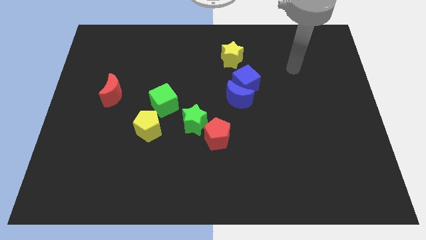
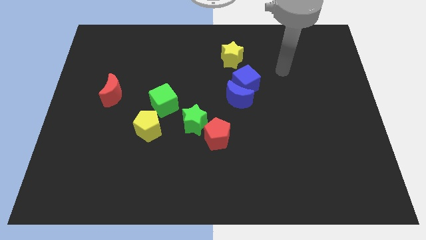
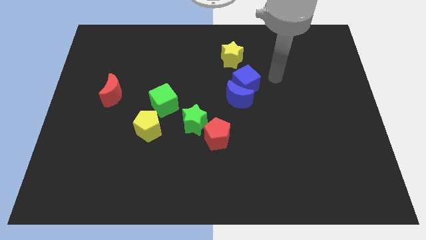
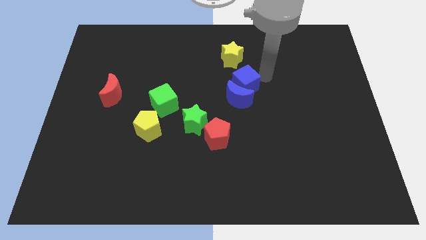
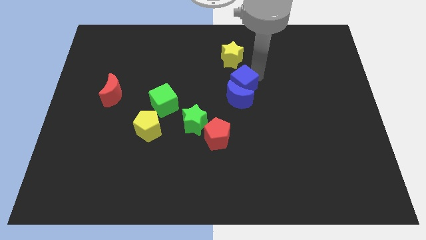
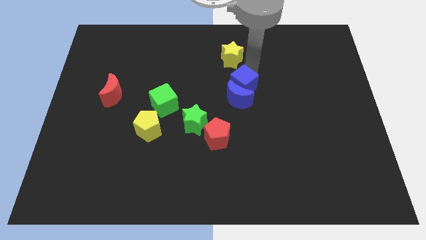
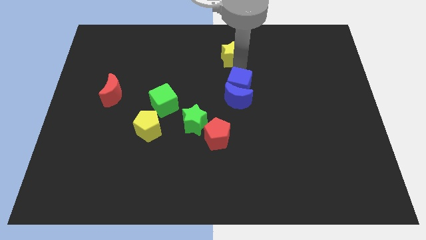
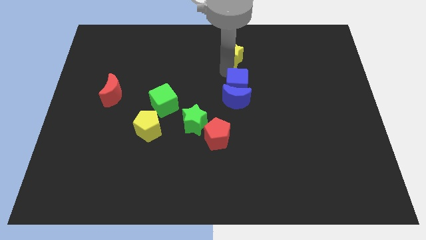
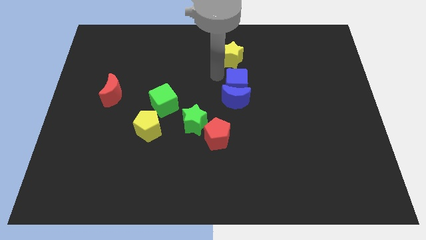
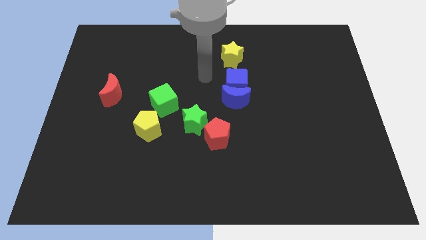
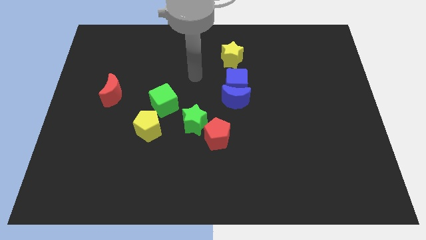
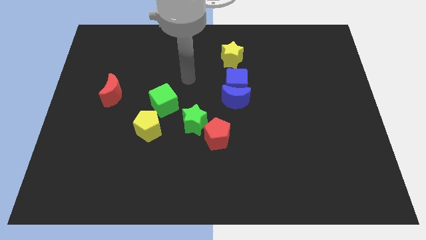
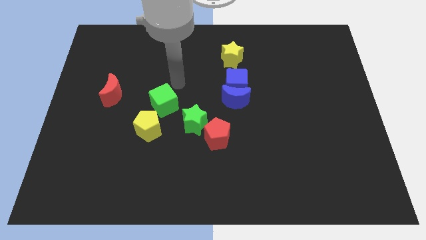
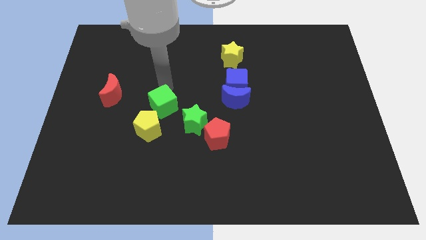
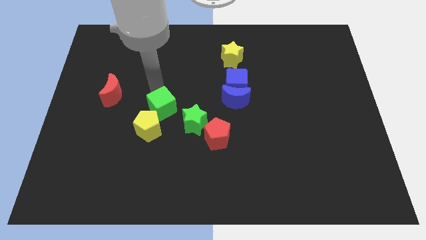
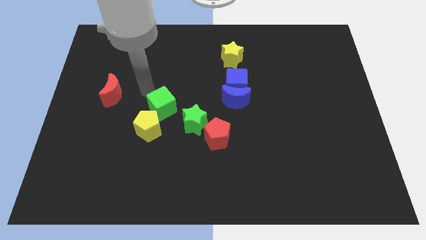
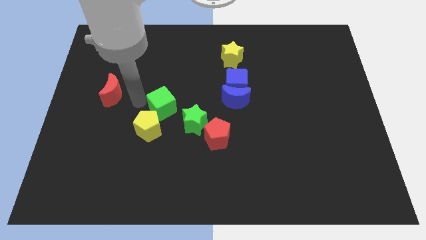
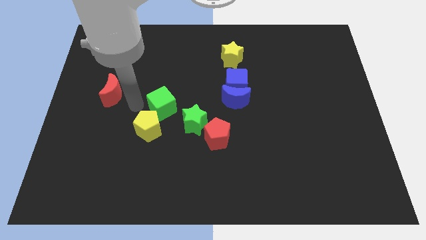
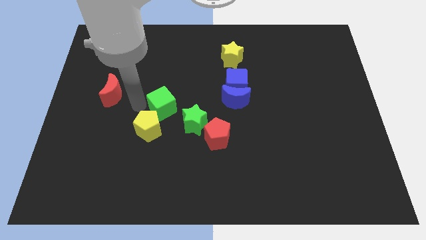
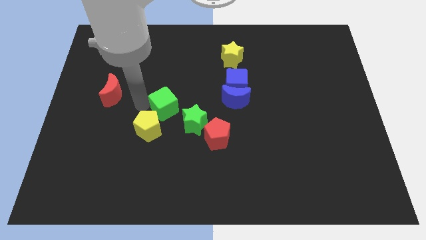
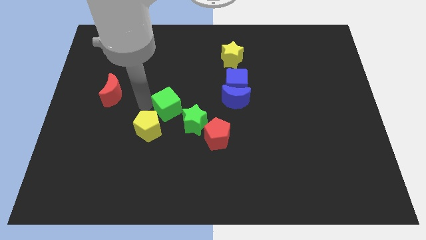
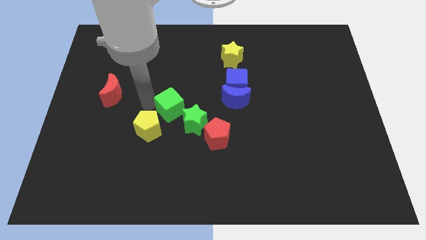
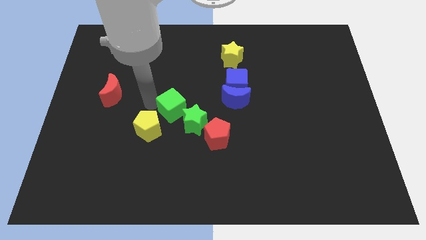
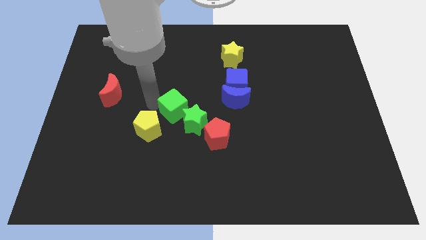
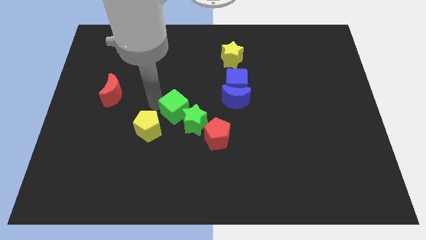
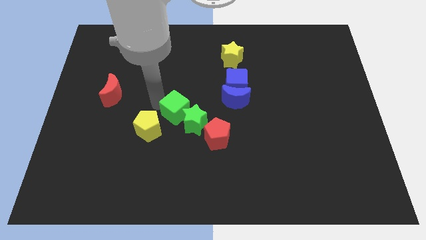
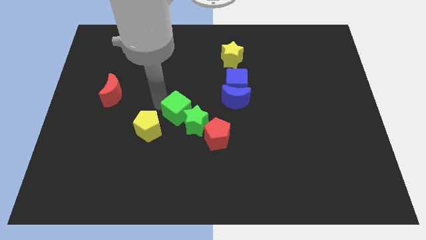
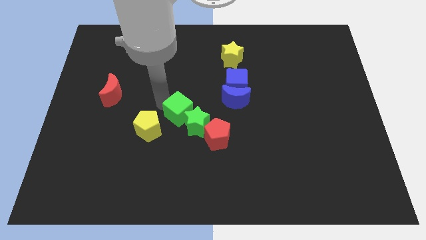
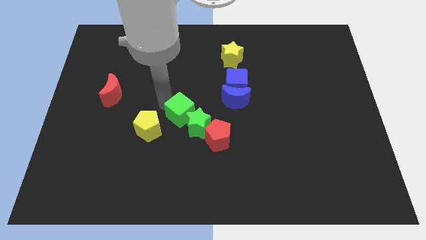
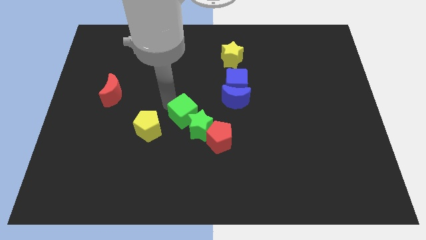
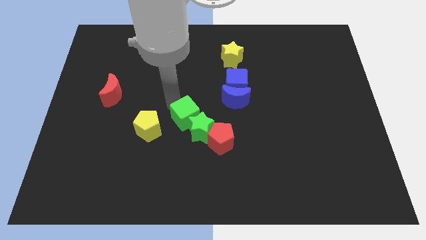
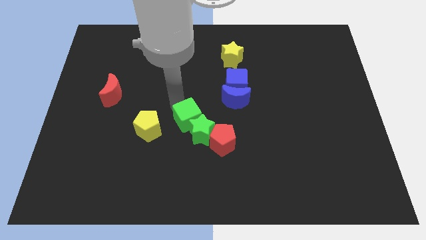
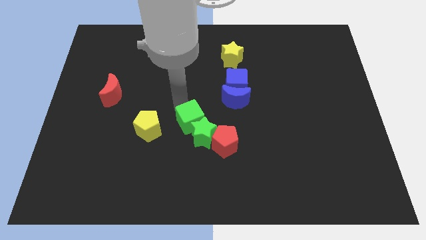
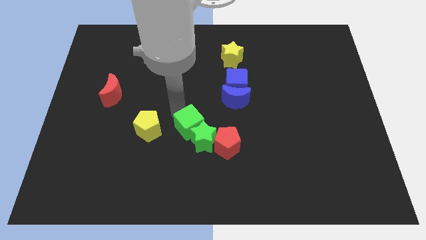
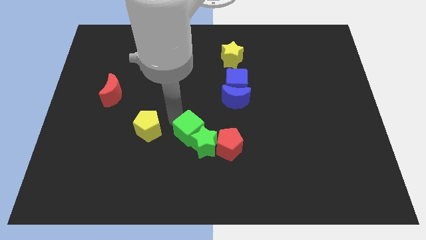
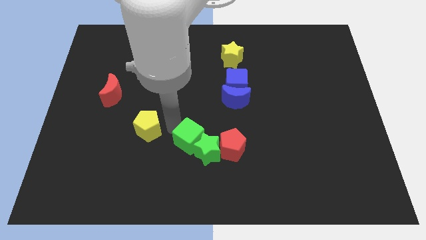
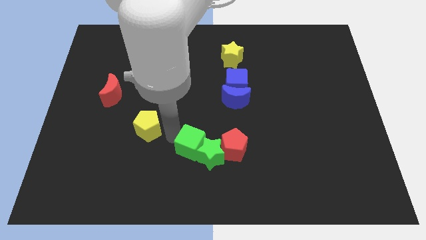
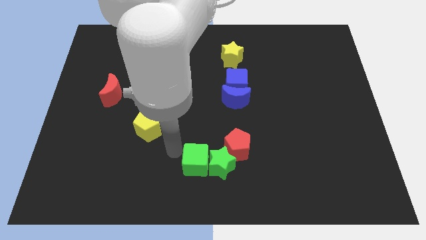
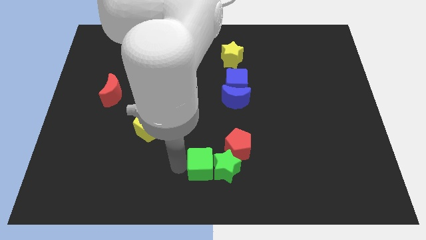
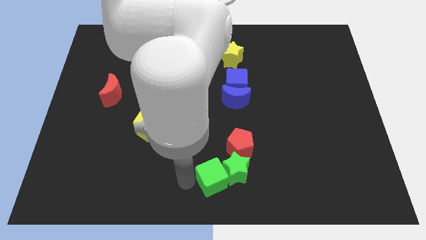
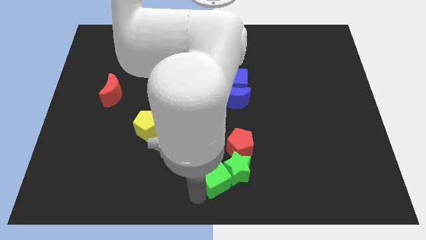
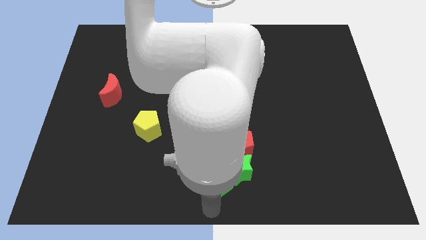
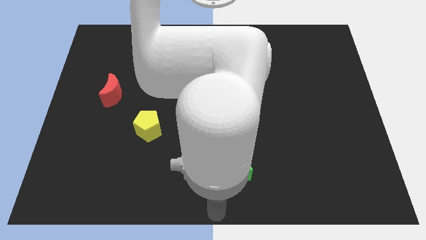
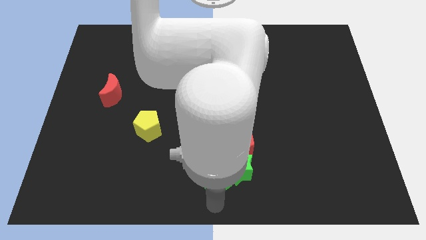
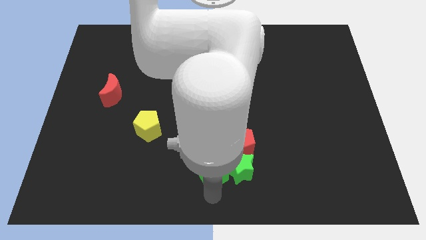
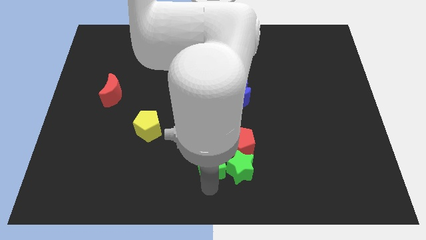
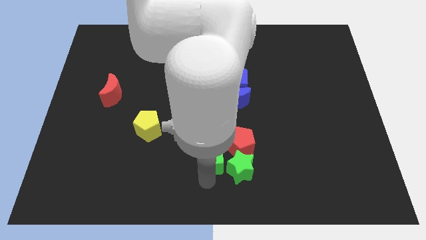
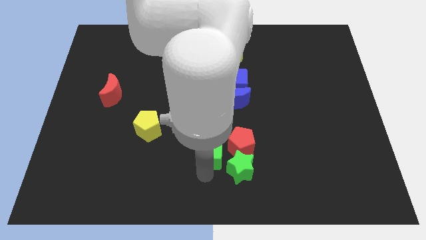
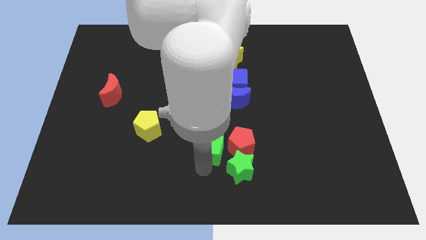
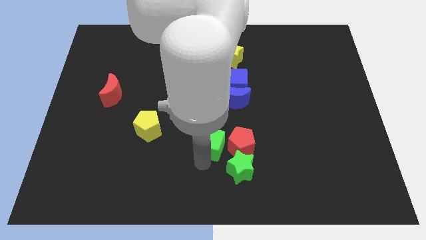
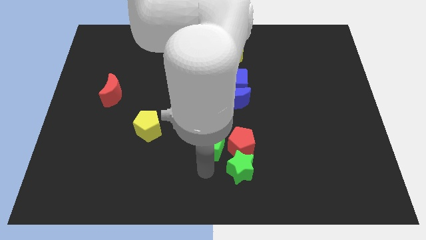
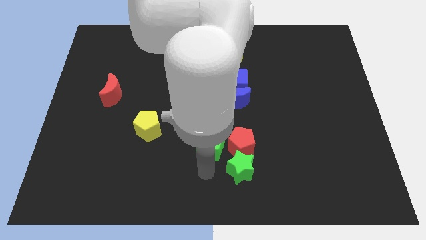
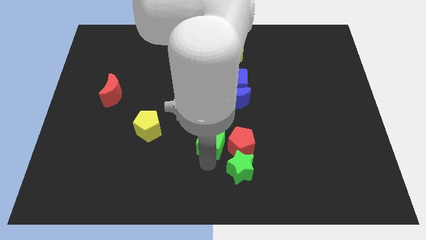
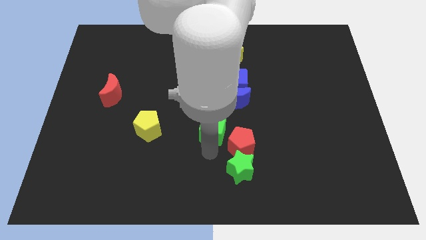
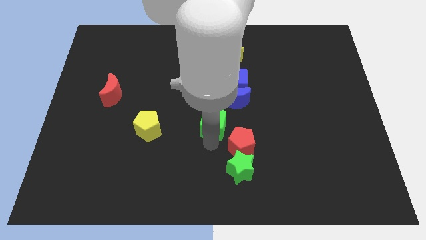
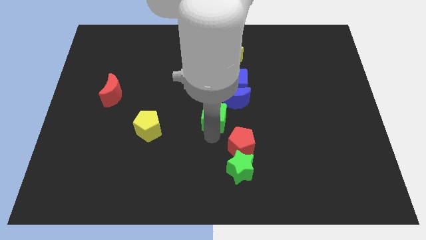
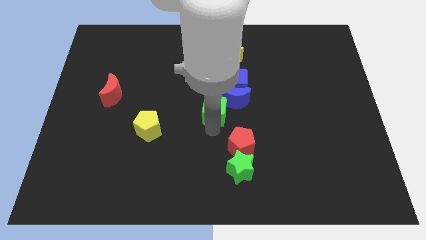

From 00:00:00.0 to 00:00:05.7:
put the green cube to the blue moon

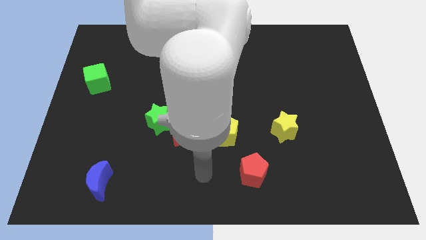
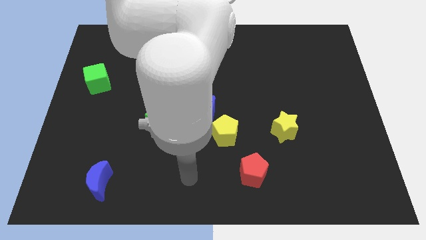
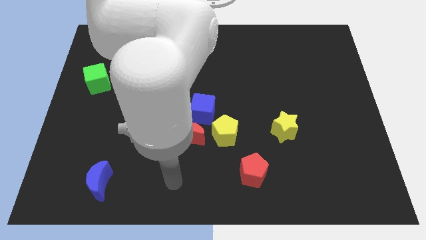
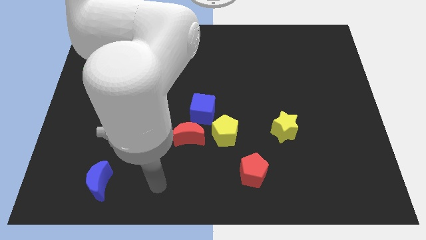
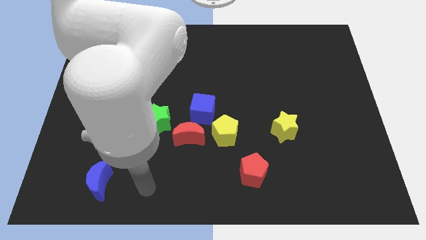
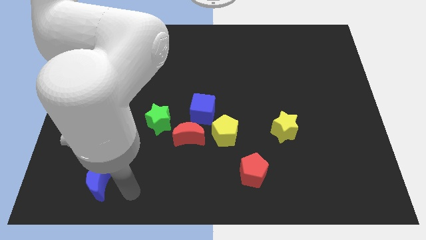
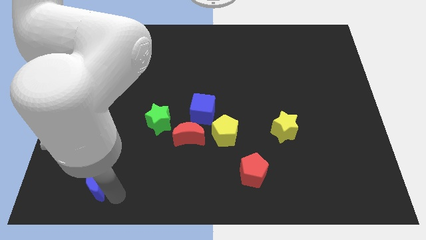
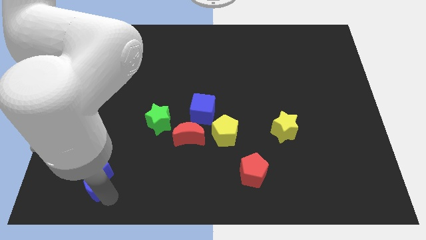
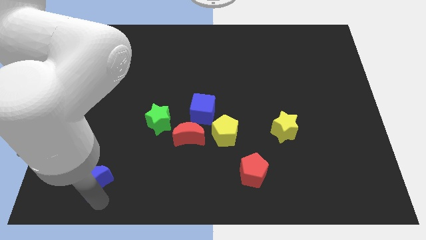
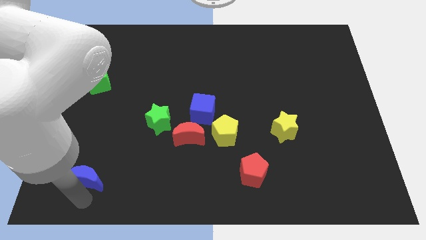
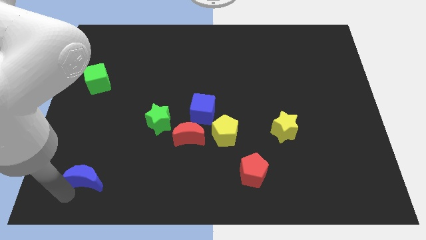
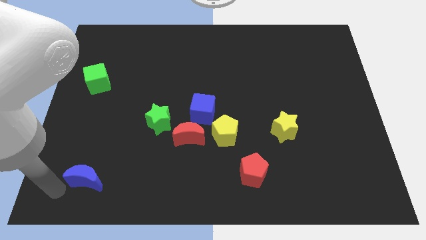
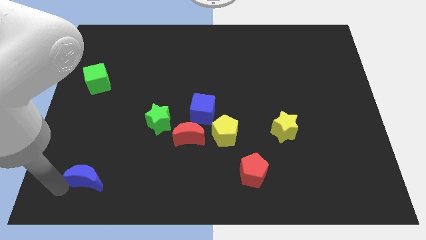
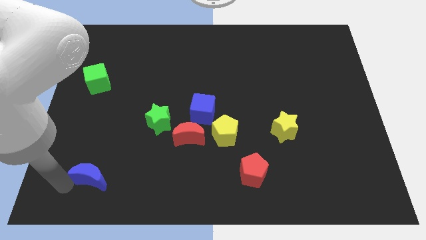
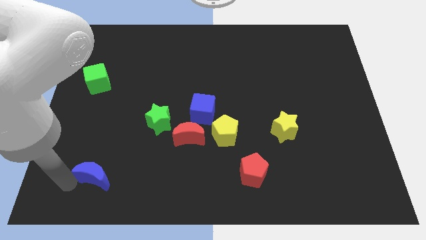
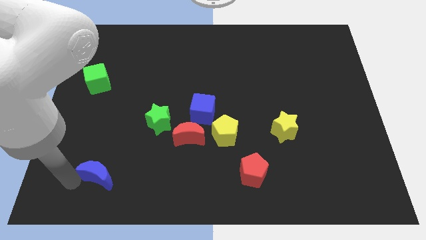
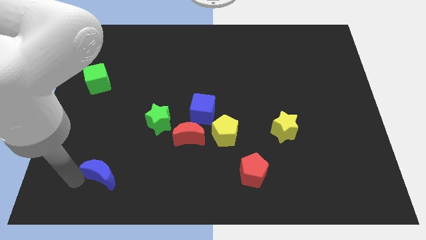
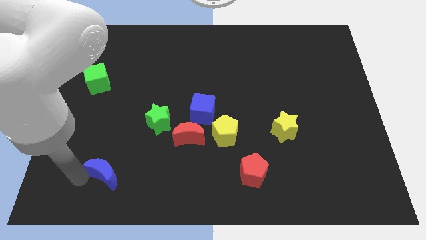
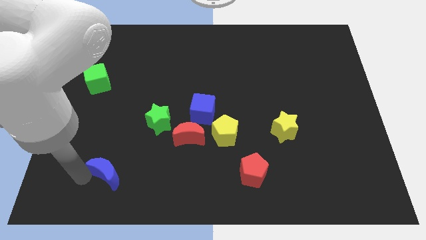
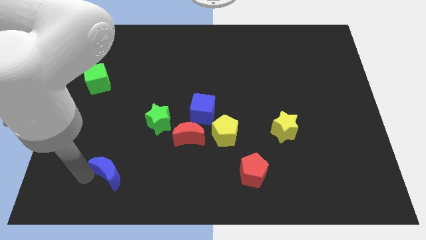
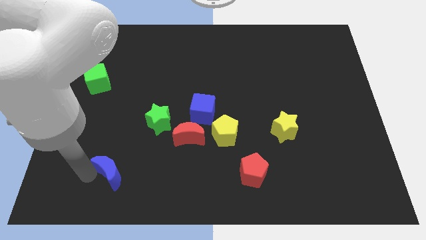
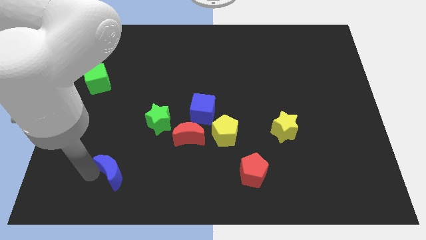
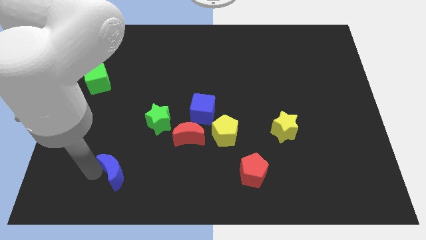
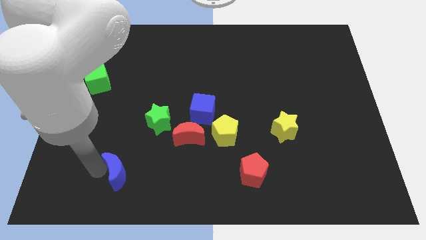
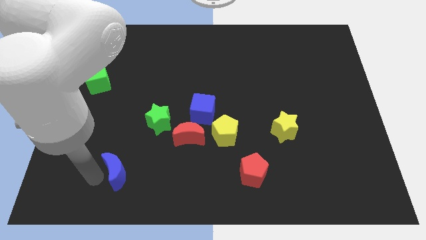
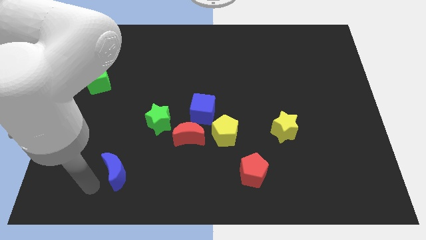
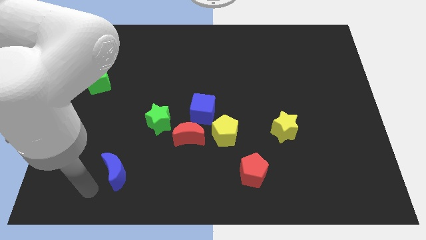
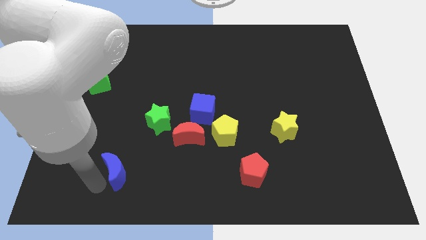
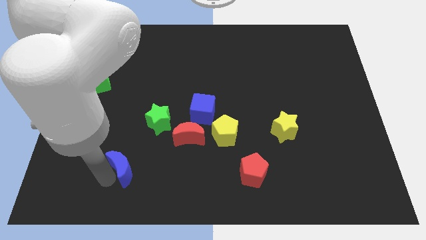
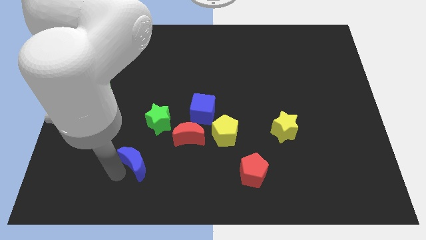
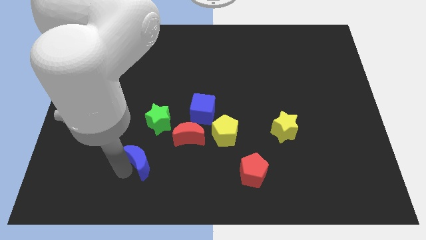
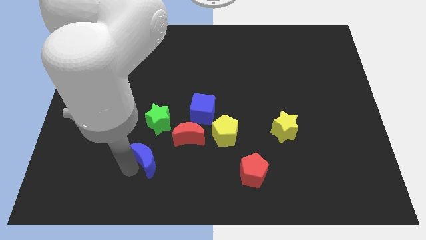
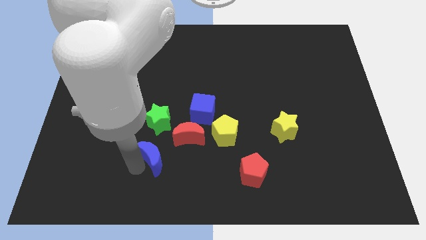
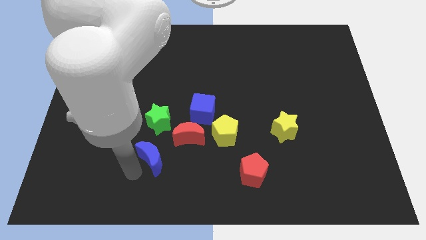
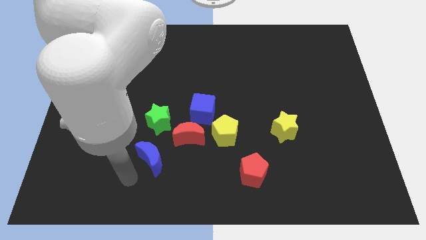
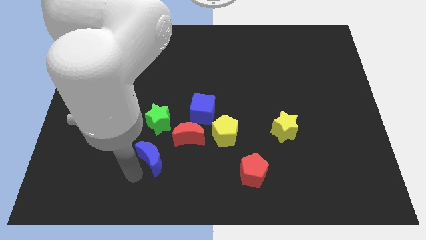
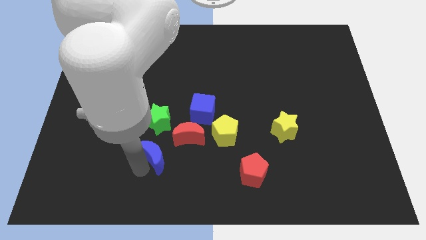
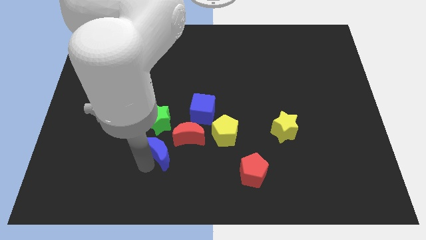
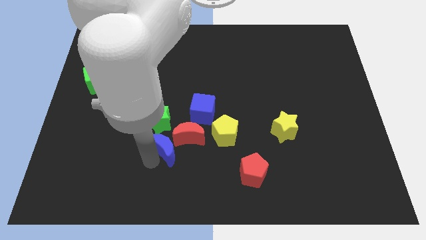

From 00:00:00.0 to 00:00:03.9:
push the blue moon towards the red moon
